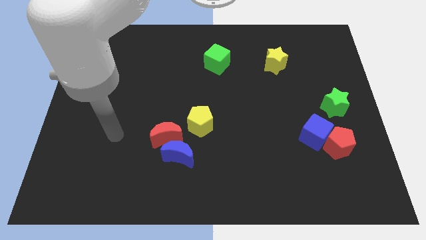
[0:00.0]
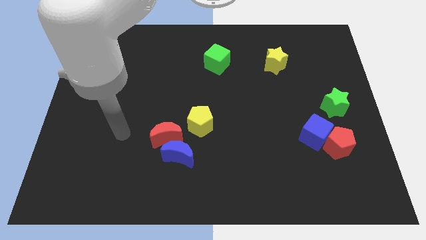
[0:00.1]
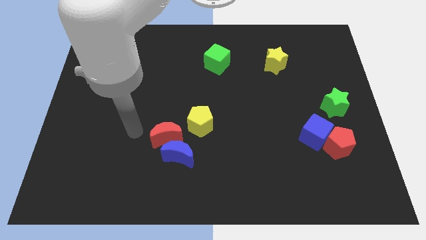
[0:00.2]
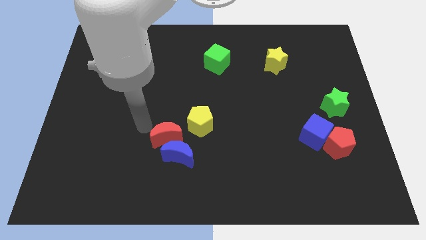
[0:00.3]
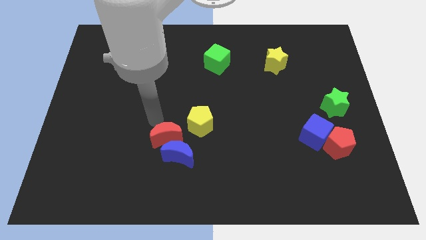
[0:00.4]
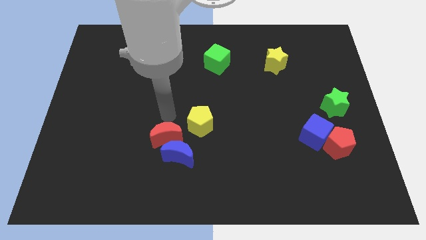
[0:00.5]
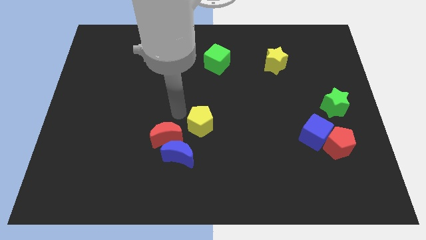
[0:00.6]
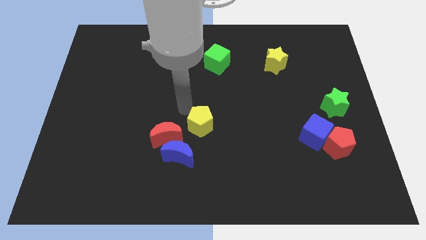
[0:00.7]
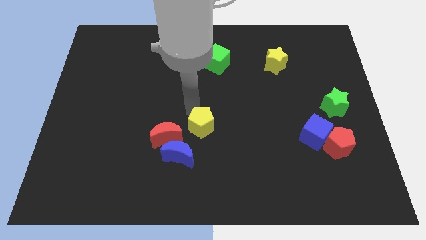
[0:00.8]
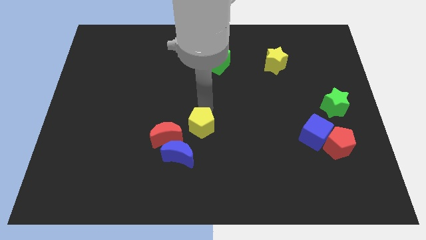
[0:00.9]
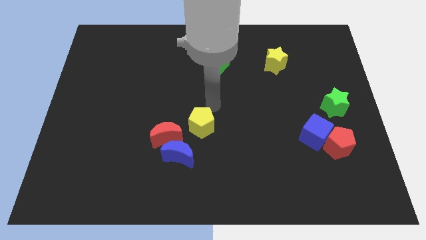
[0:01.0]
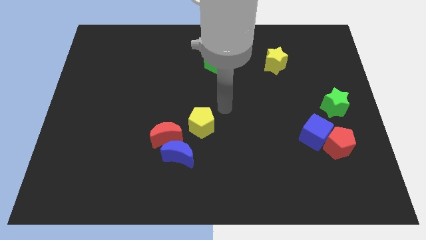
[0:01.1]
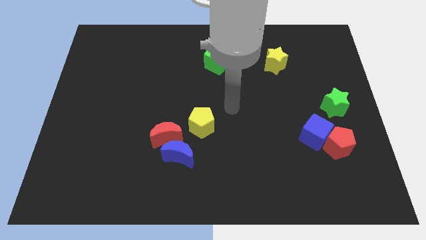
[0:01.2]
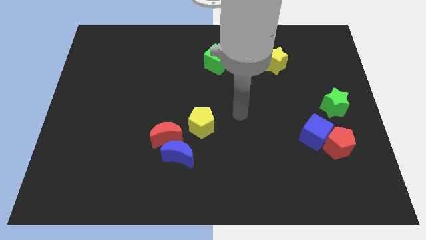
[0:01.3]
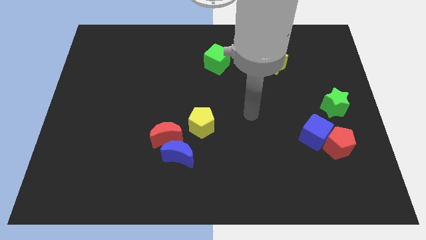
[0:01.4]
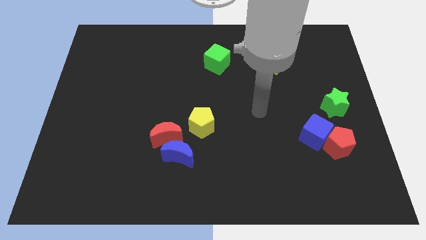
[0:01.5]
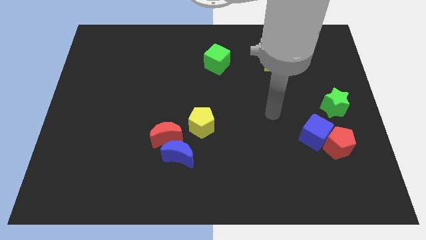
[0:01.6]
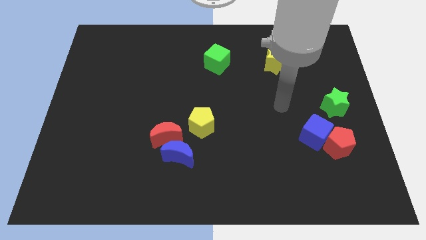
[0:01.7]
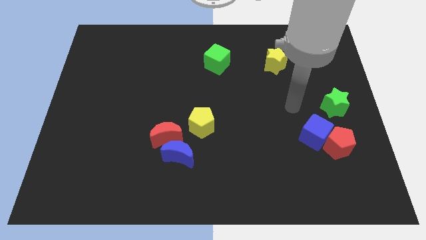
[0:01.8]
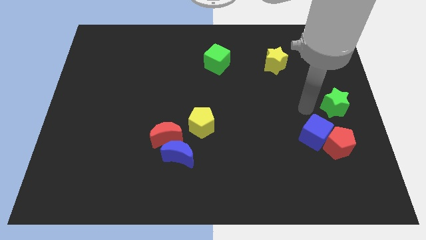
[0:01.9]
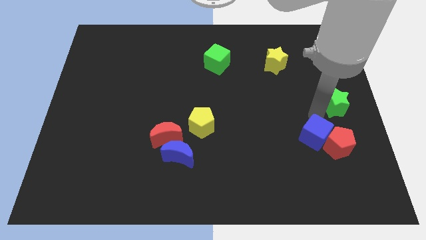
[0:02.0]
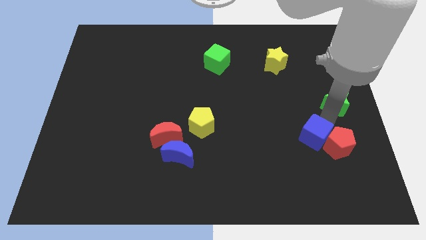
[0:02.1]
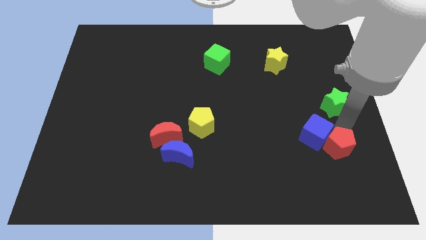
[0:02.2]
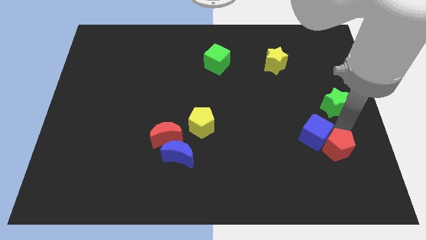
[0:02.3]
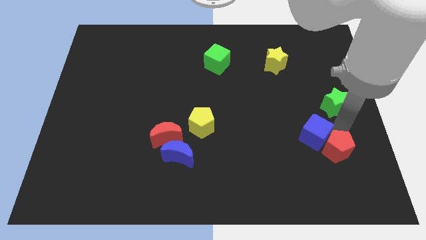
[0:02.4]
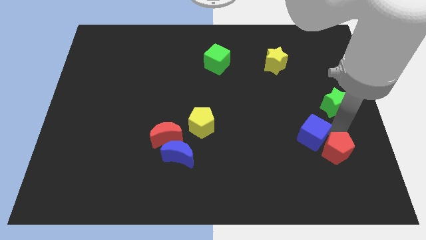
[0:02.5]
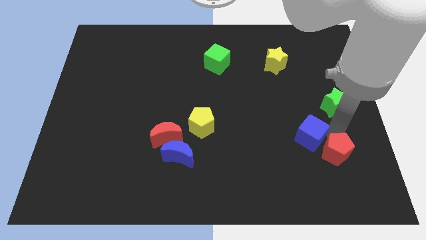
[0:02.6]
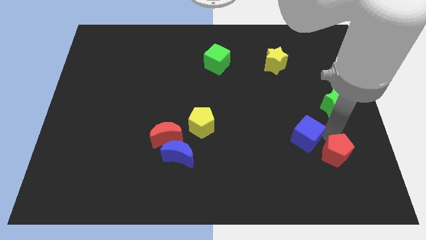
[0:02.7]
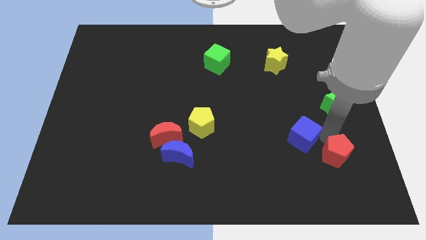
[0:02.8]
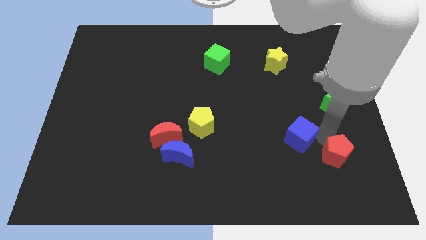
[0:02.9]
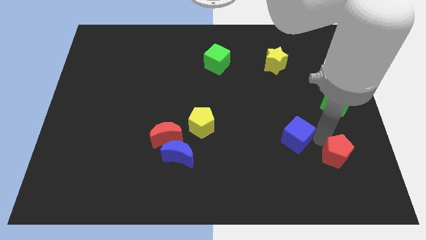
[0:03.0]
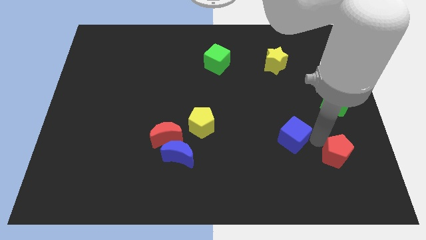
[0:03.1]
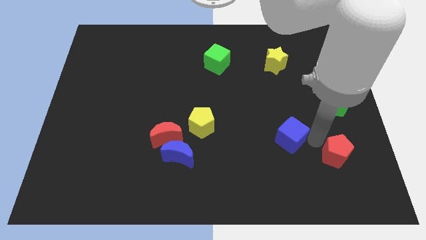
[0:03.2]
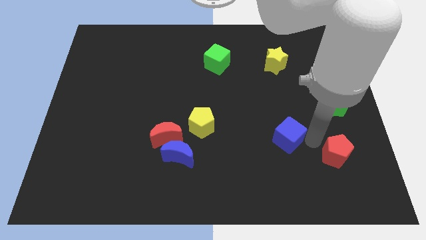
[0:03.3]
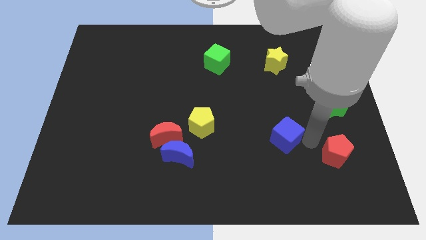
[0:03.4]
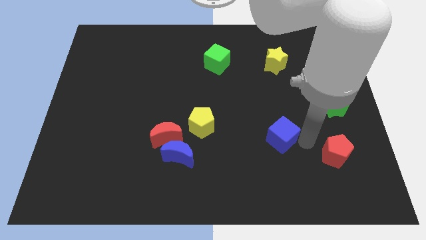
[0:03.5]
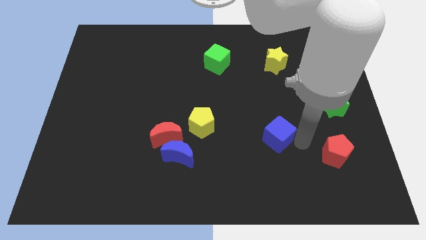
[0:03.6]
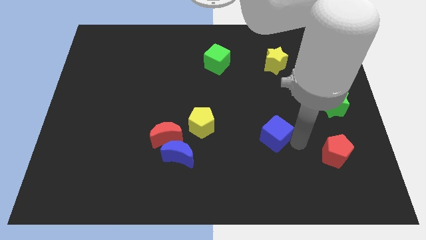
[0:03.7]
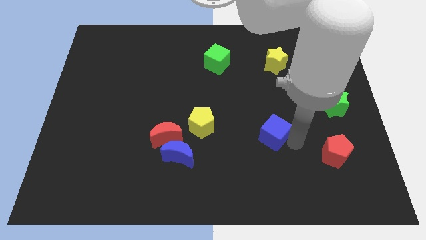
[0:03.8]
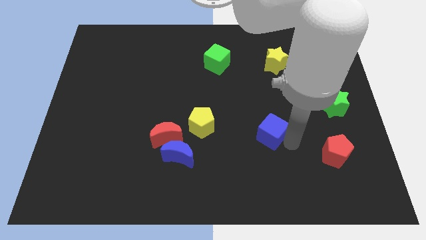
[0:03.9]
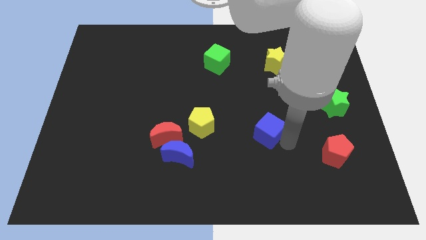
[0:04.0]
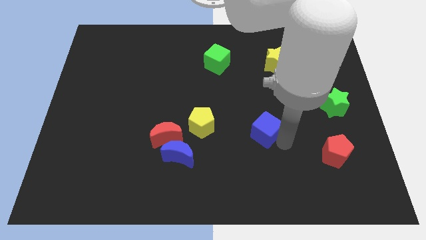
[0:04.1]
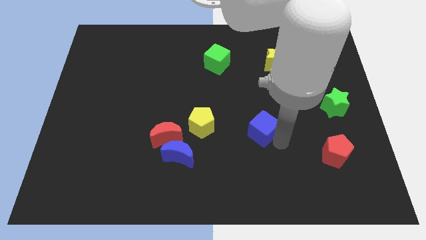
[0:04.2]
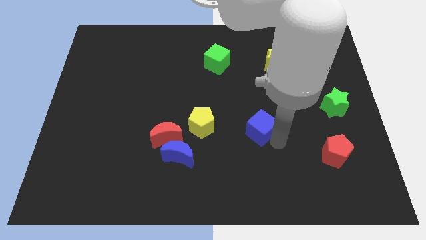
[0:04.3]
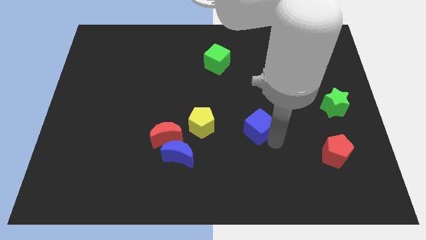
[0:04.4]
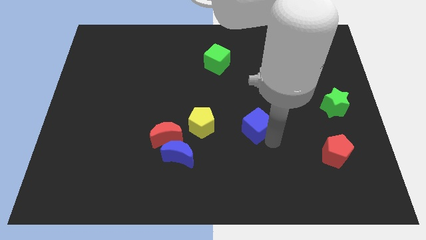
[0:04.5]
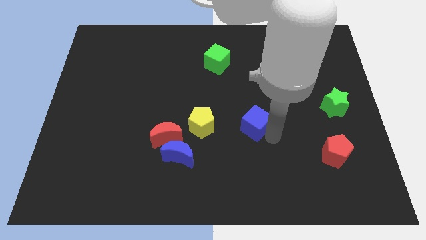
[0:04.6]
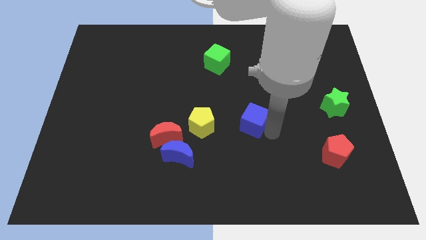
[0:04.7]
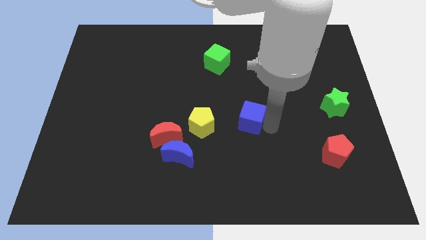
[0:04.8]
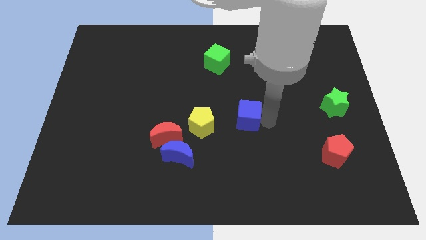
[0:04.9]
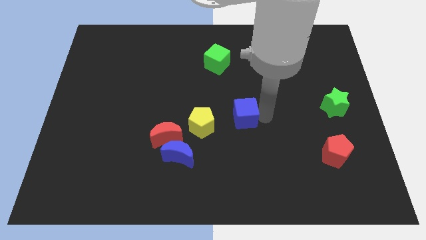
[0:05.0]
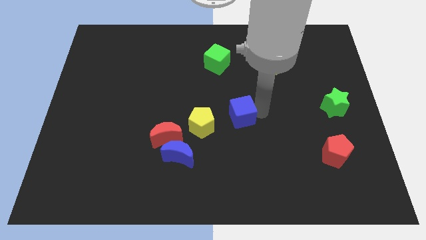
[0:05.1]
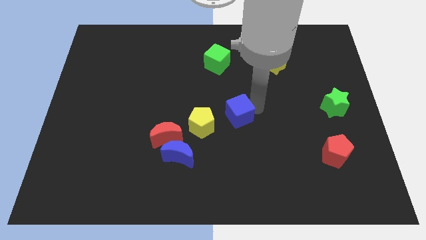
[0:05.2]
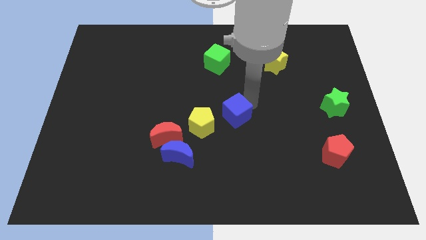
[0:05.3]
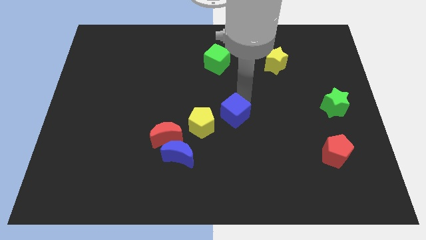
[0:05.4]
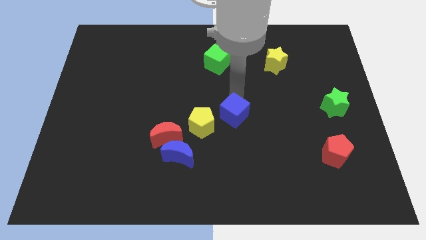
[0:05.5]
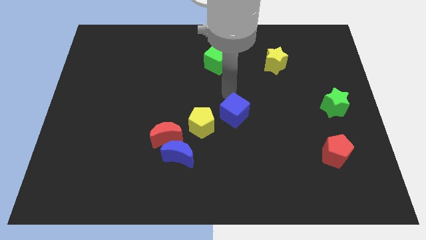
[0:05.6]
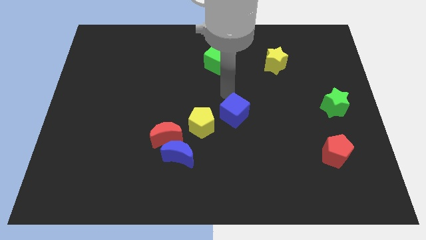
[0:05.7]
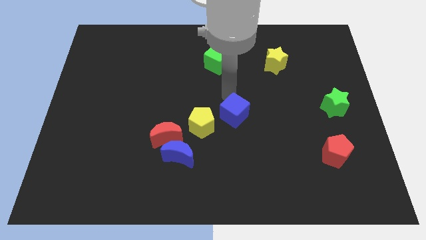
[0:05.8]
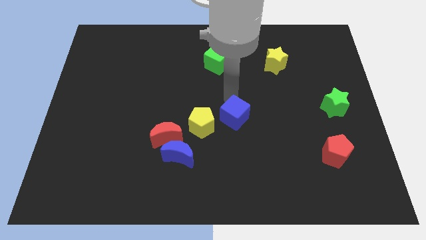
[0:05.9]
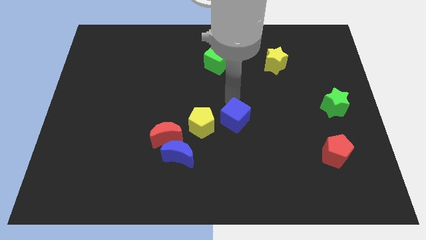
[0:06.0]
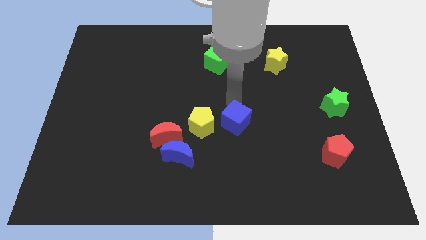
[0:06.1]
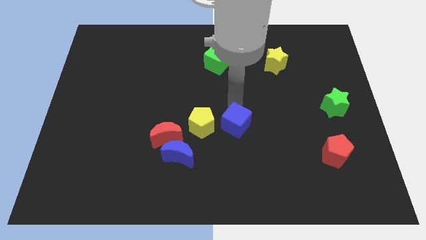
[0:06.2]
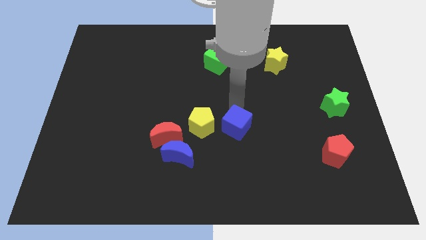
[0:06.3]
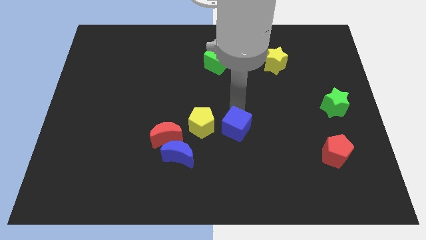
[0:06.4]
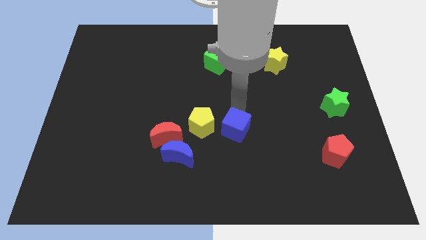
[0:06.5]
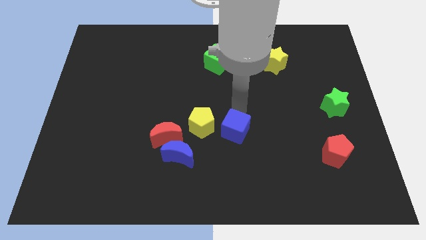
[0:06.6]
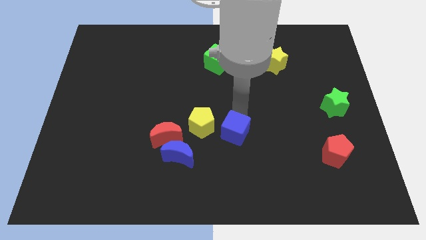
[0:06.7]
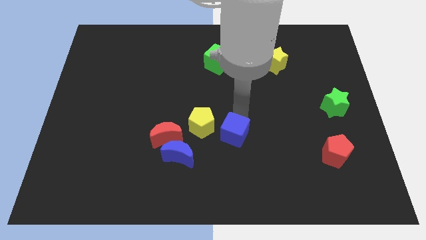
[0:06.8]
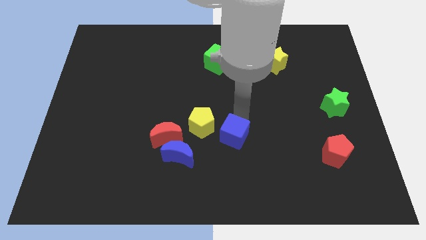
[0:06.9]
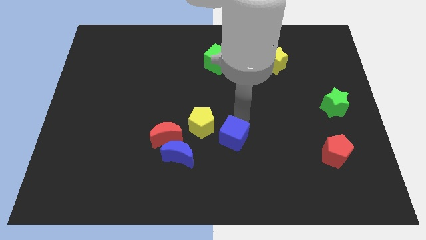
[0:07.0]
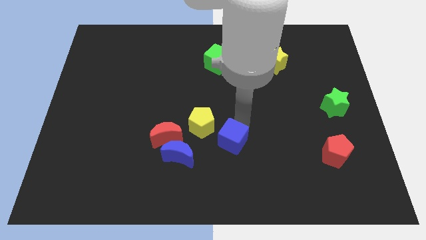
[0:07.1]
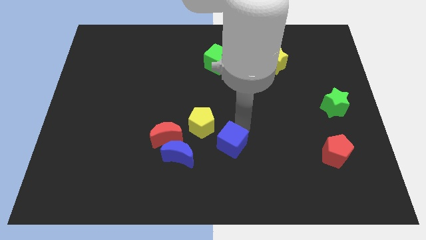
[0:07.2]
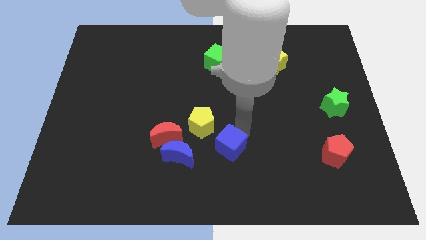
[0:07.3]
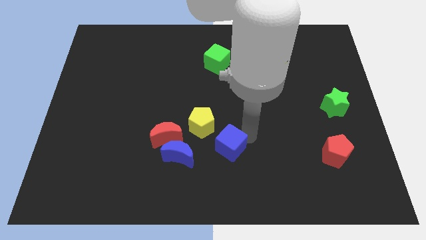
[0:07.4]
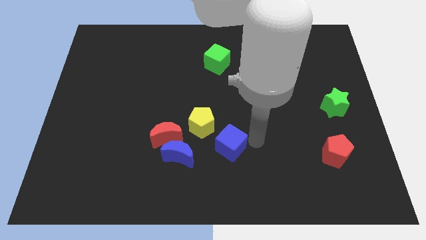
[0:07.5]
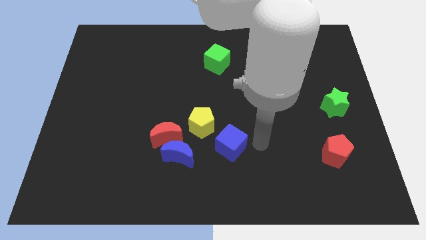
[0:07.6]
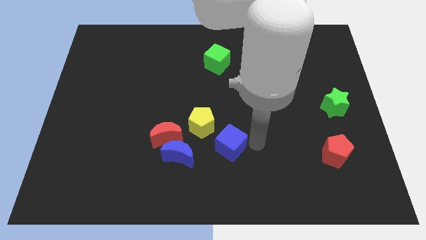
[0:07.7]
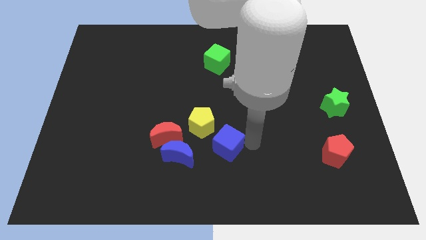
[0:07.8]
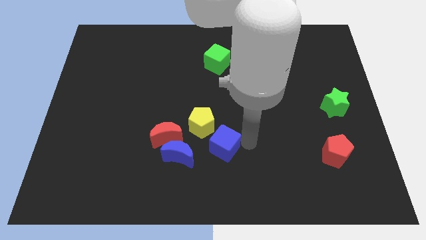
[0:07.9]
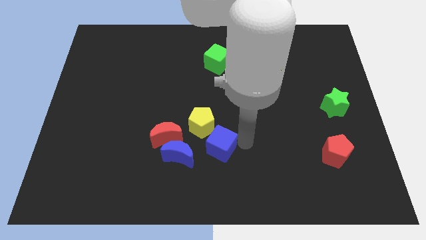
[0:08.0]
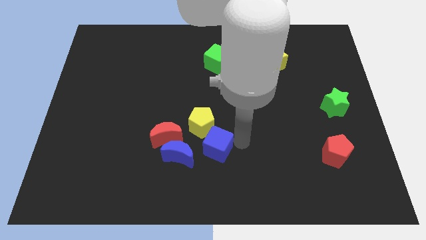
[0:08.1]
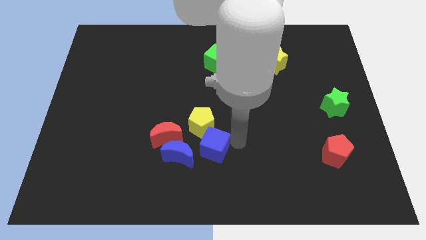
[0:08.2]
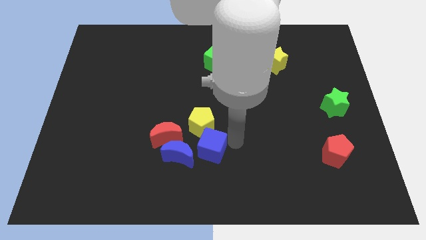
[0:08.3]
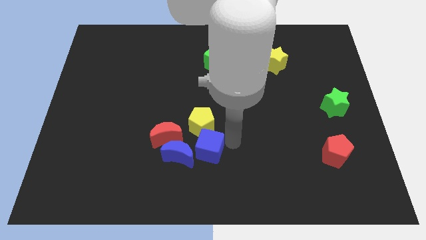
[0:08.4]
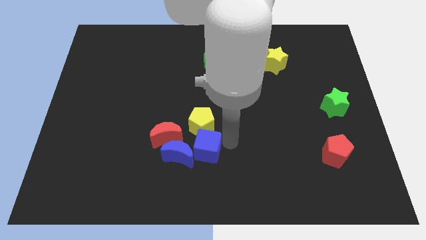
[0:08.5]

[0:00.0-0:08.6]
put the blue cube next to the blue moon
